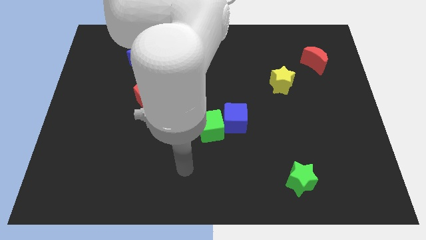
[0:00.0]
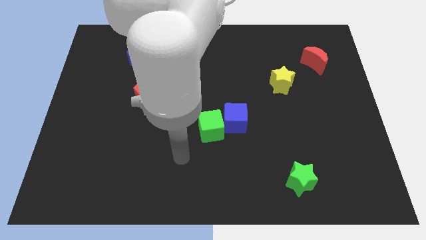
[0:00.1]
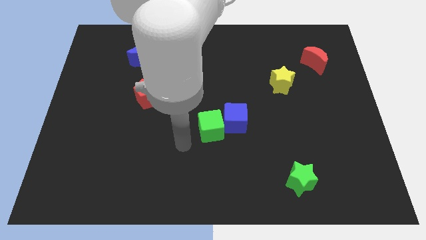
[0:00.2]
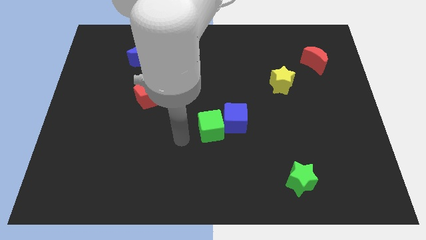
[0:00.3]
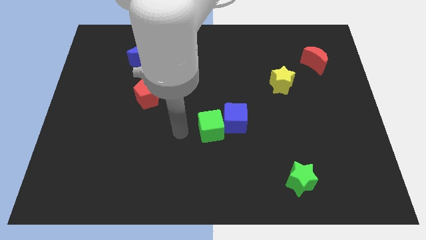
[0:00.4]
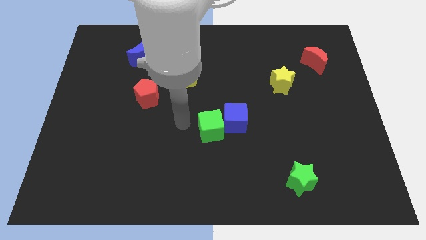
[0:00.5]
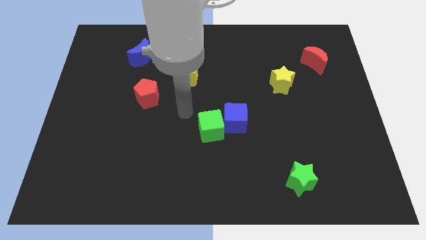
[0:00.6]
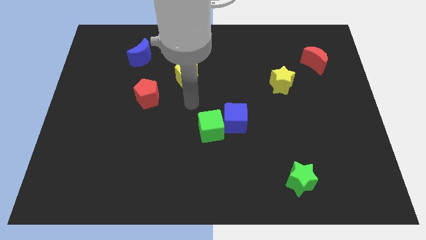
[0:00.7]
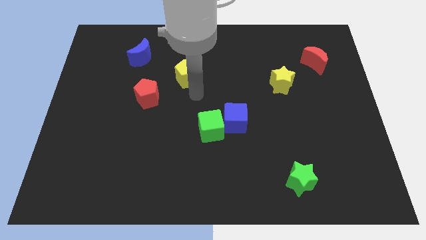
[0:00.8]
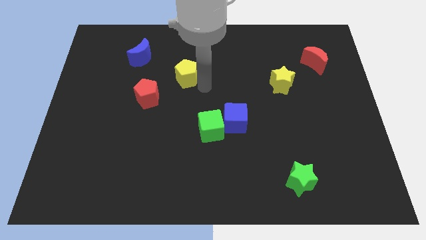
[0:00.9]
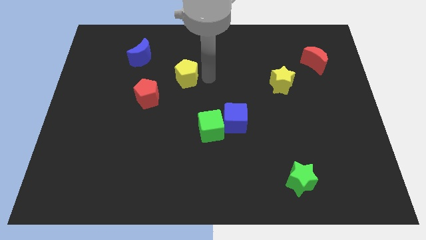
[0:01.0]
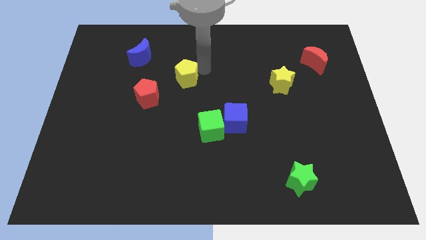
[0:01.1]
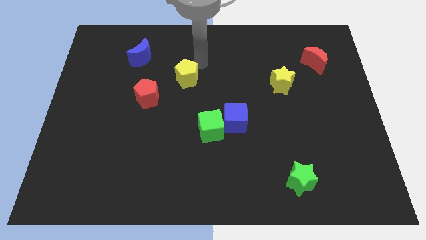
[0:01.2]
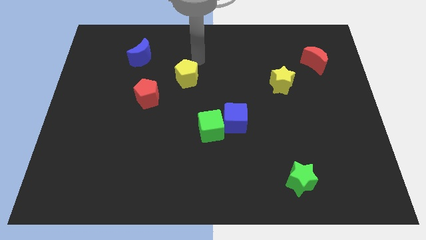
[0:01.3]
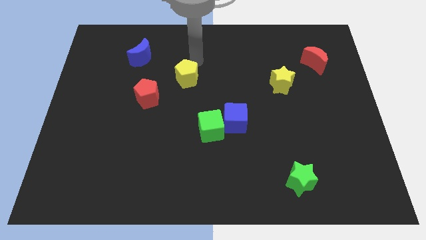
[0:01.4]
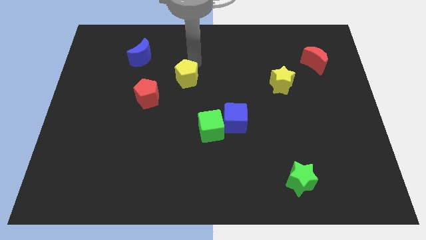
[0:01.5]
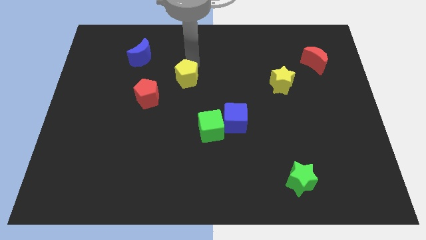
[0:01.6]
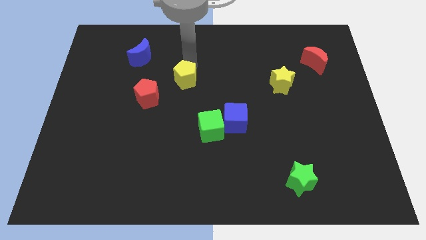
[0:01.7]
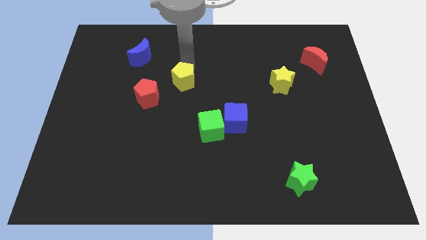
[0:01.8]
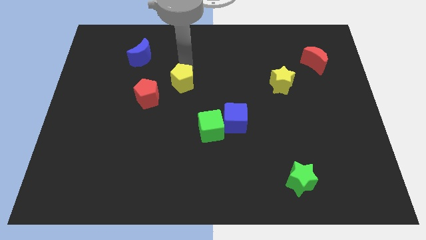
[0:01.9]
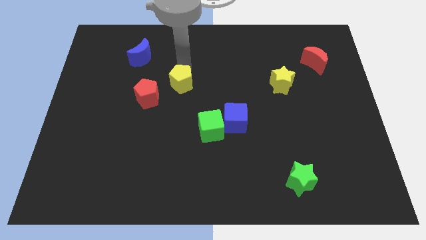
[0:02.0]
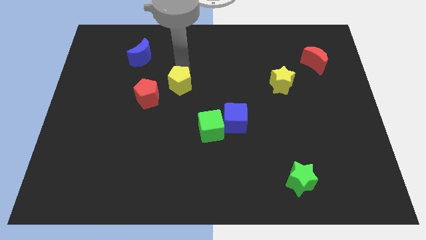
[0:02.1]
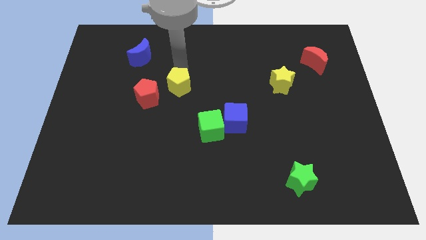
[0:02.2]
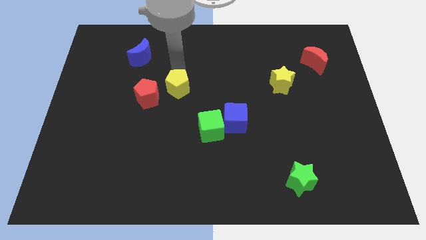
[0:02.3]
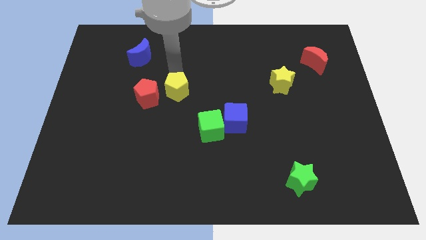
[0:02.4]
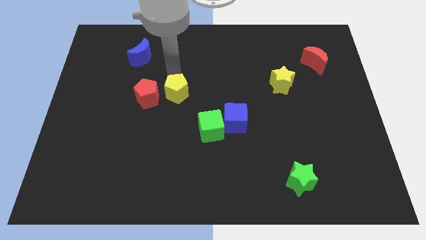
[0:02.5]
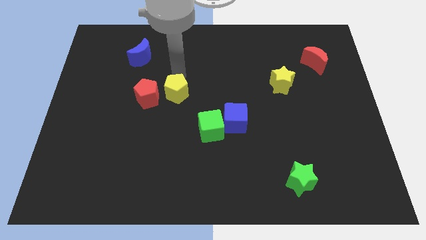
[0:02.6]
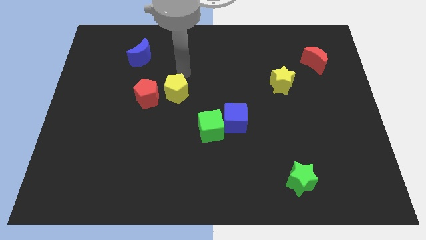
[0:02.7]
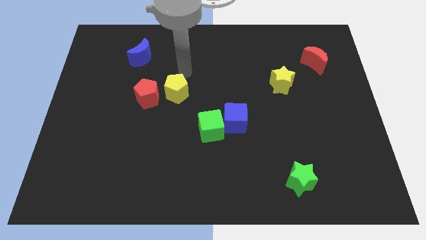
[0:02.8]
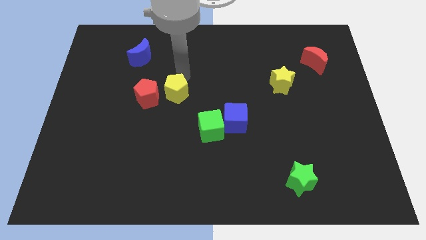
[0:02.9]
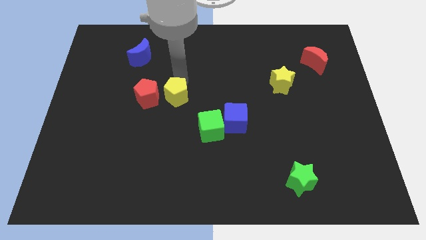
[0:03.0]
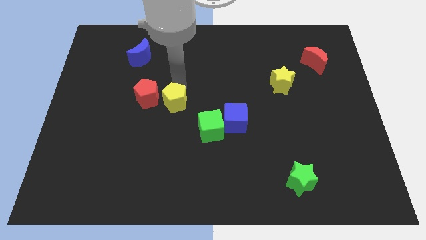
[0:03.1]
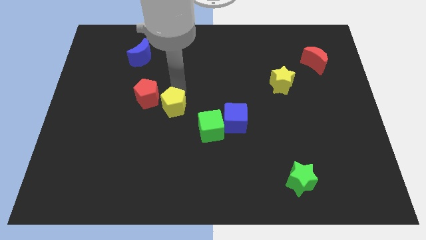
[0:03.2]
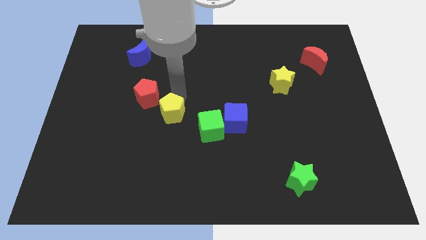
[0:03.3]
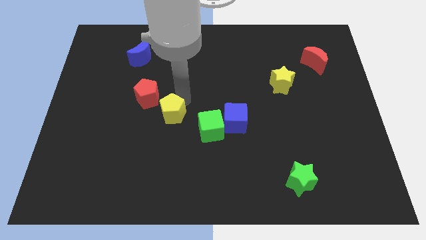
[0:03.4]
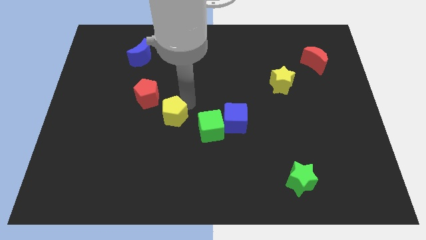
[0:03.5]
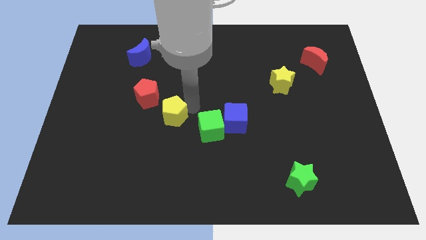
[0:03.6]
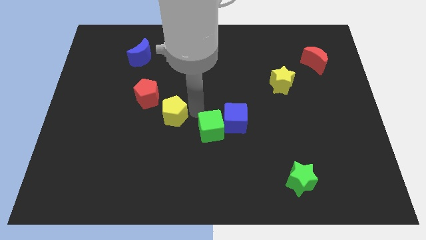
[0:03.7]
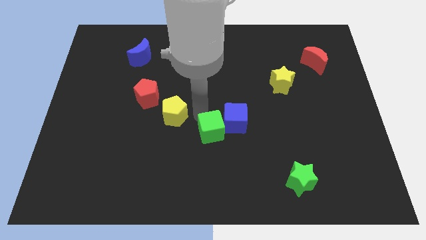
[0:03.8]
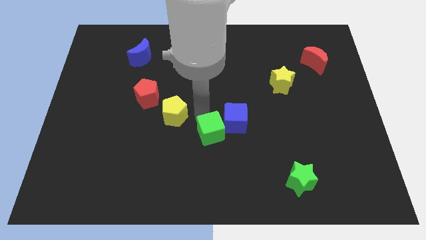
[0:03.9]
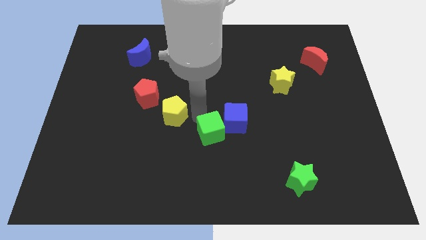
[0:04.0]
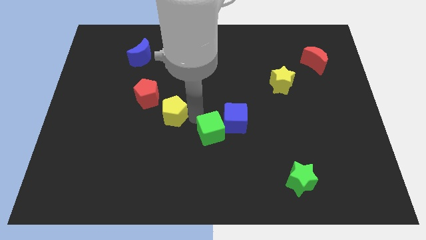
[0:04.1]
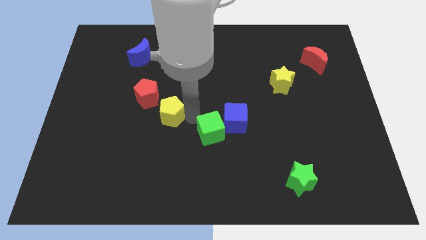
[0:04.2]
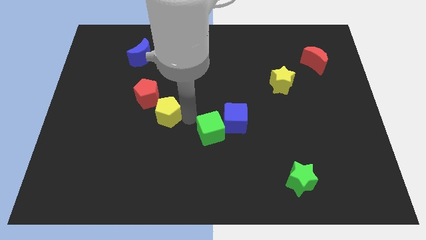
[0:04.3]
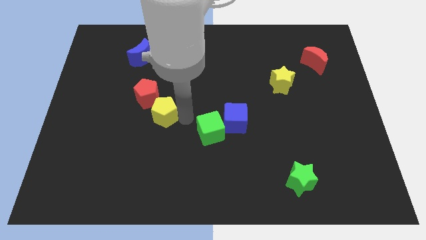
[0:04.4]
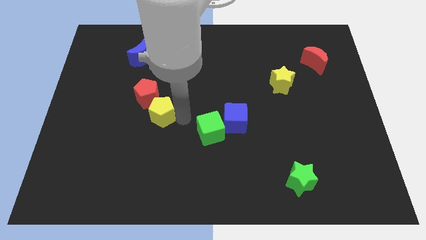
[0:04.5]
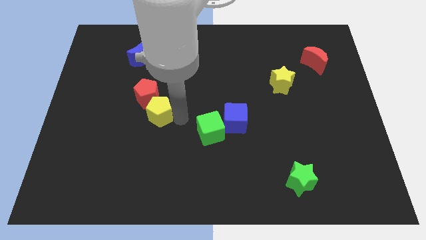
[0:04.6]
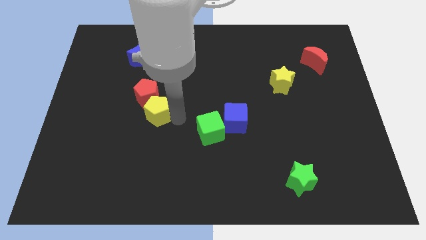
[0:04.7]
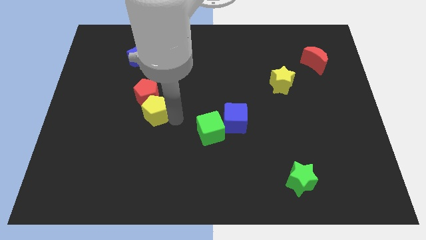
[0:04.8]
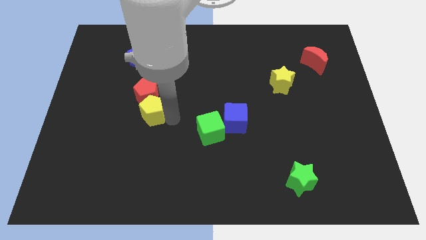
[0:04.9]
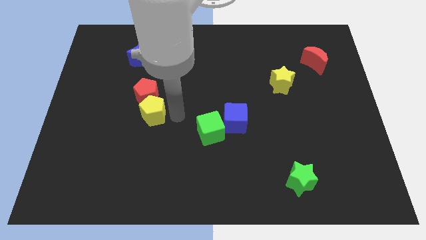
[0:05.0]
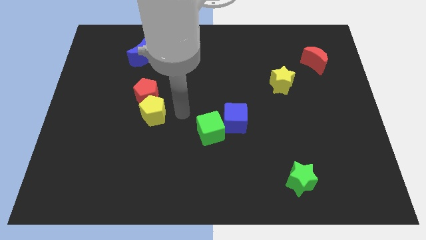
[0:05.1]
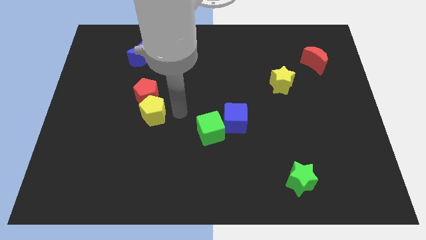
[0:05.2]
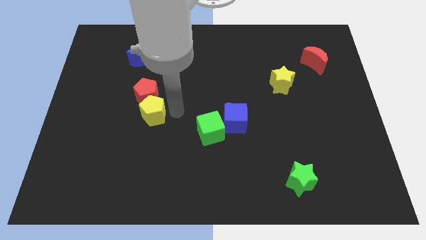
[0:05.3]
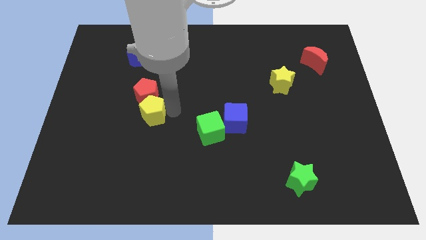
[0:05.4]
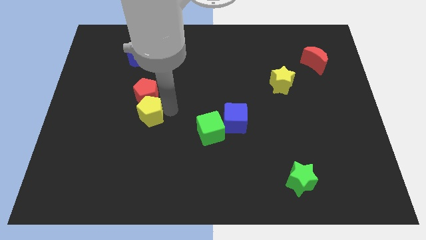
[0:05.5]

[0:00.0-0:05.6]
push the yellow pentagon to the bottom left side of the red pentagon
